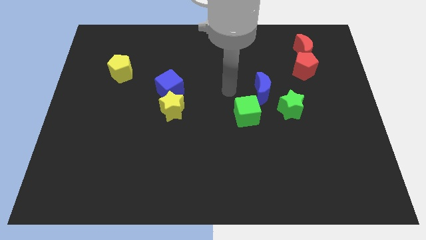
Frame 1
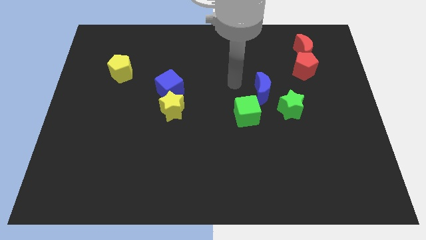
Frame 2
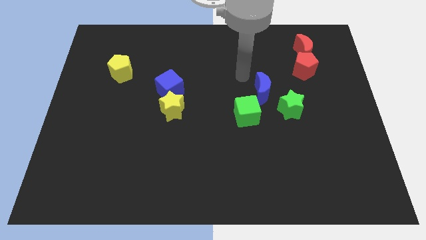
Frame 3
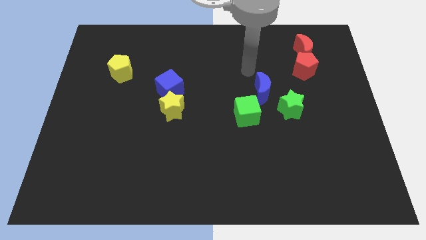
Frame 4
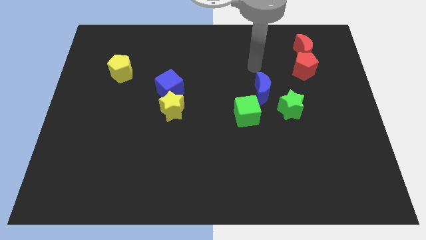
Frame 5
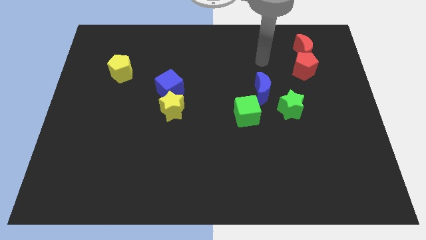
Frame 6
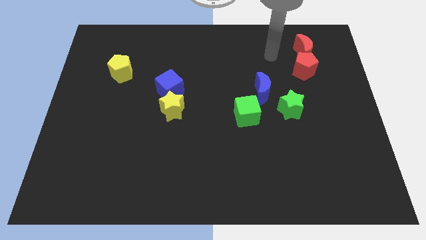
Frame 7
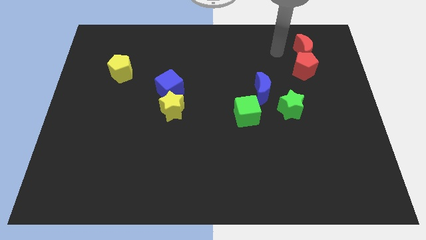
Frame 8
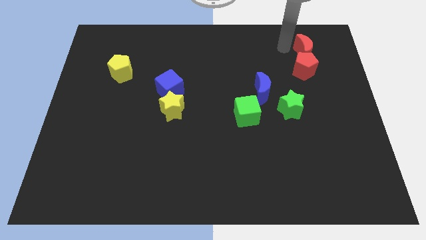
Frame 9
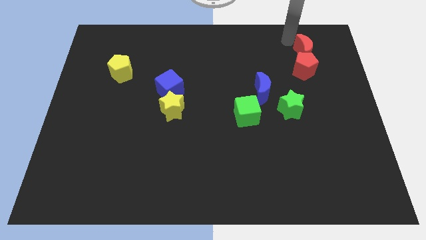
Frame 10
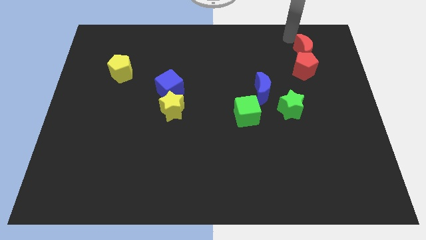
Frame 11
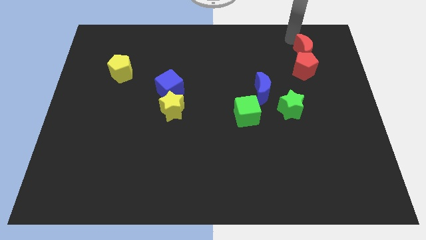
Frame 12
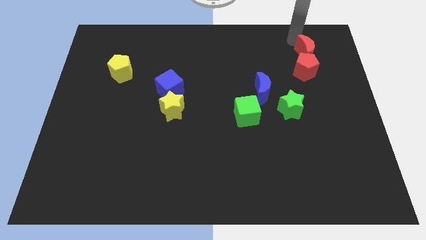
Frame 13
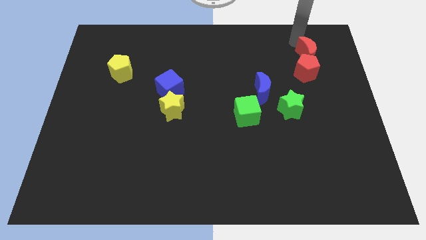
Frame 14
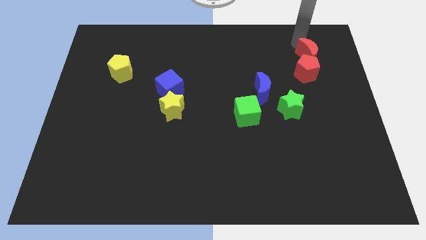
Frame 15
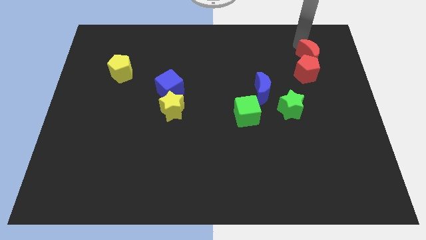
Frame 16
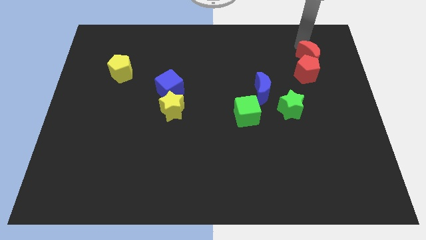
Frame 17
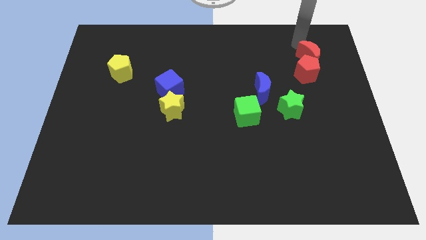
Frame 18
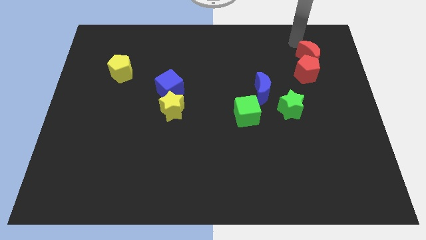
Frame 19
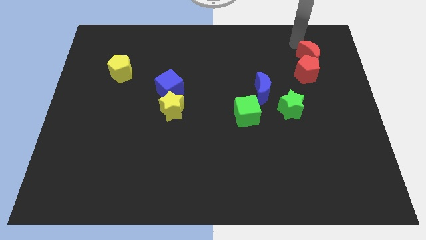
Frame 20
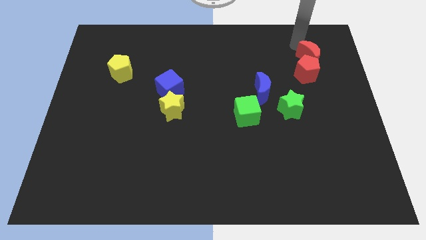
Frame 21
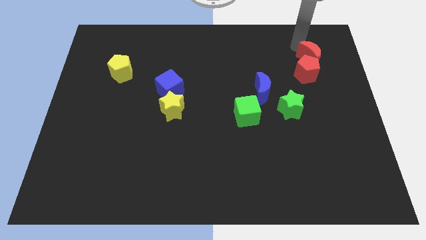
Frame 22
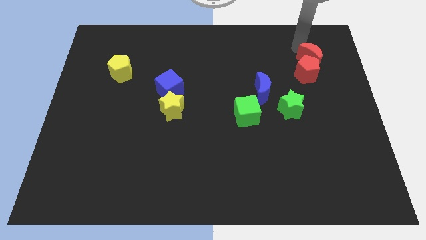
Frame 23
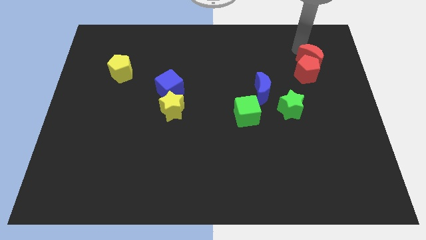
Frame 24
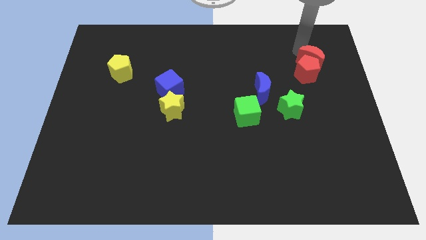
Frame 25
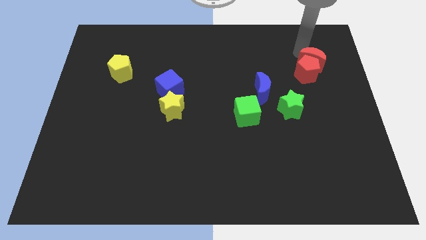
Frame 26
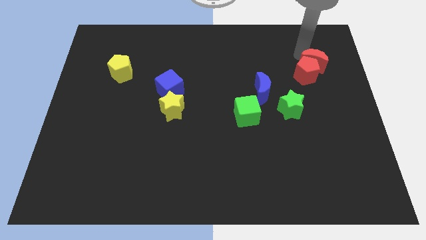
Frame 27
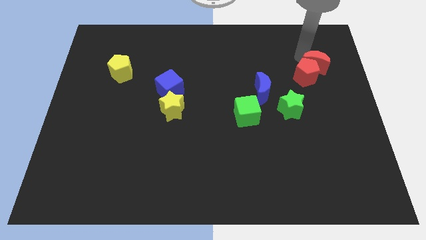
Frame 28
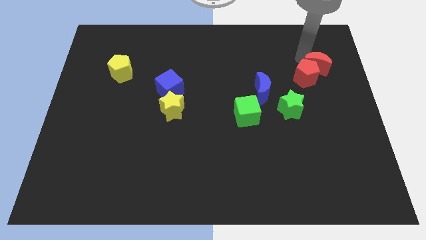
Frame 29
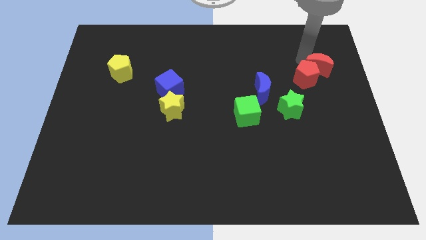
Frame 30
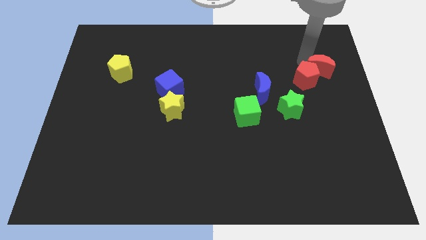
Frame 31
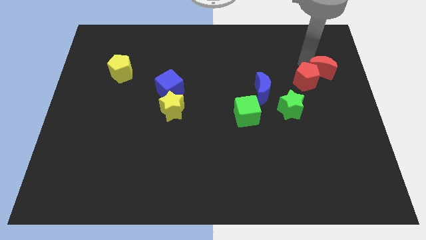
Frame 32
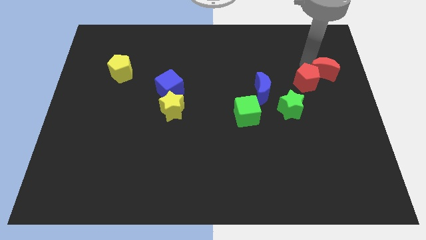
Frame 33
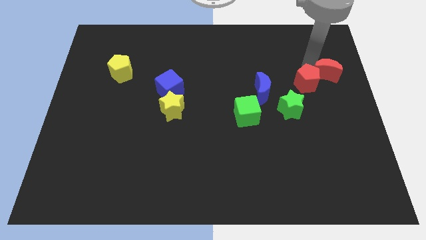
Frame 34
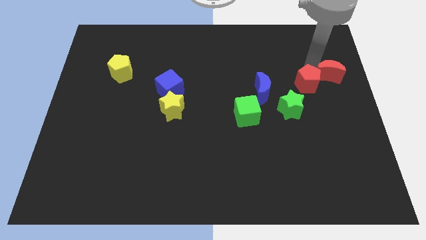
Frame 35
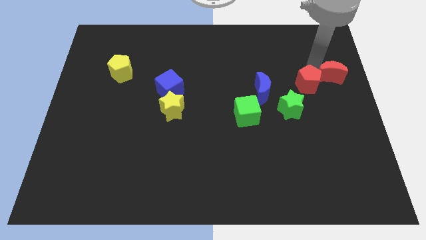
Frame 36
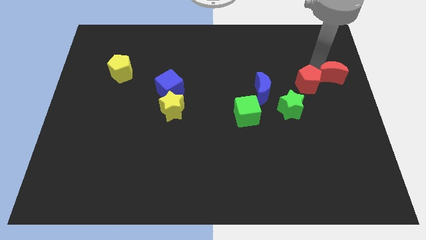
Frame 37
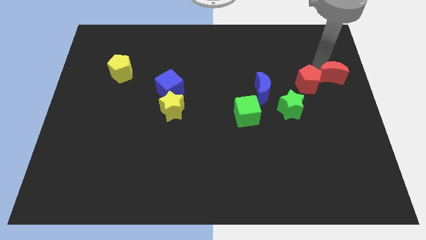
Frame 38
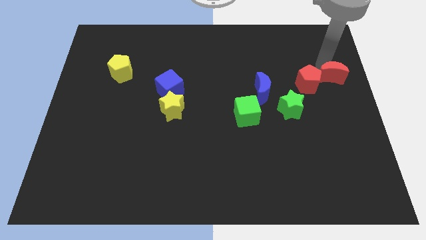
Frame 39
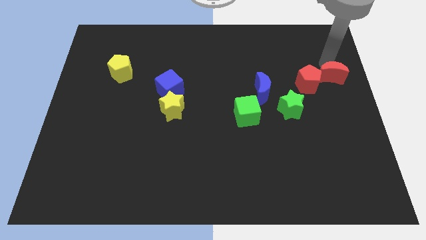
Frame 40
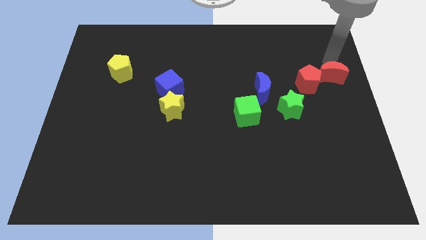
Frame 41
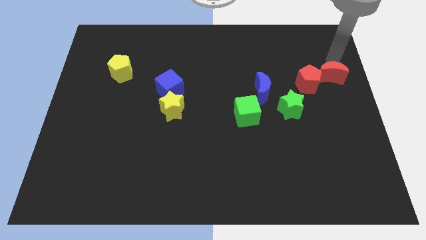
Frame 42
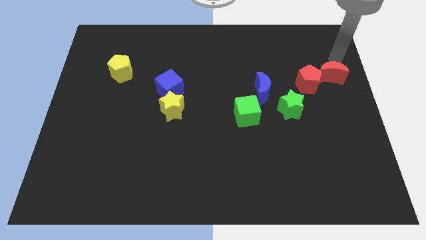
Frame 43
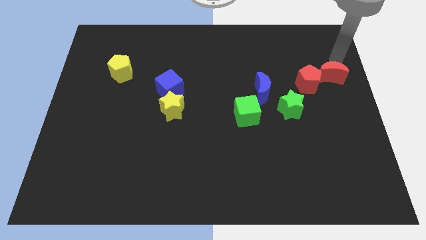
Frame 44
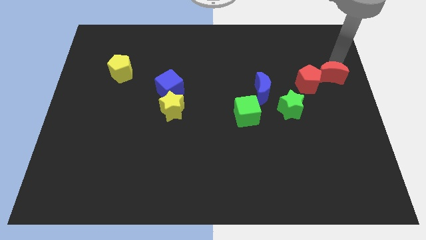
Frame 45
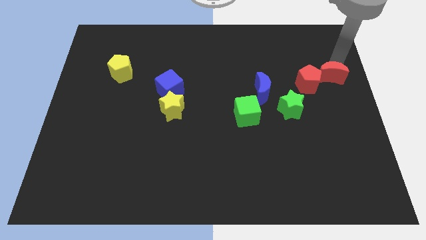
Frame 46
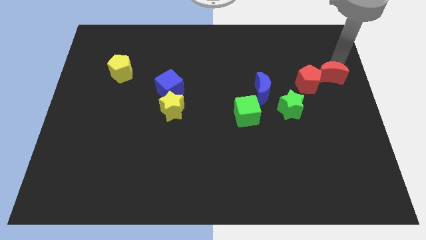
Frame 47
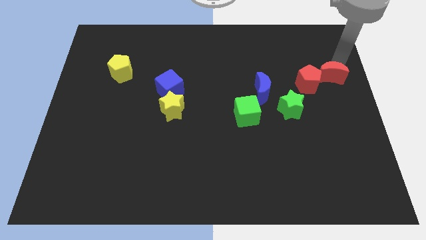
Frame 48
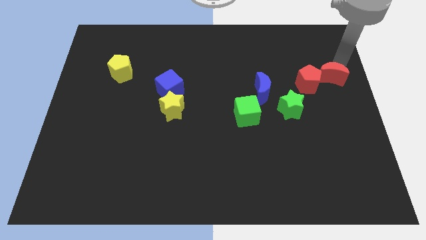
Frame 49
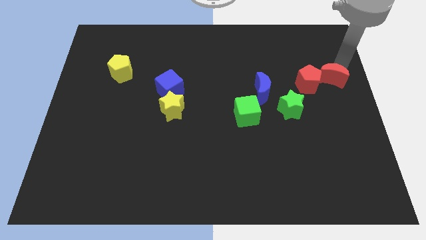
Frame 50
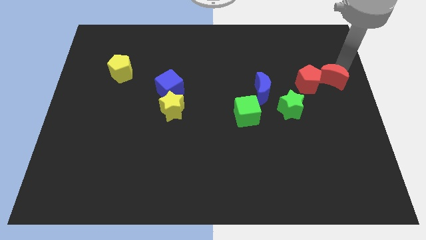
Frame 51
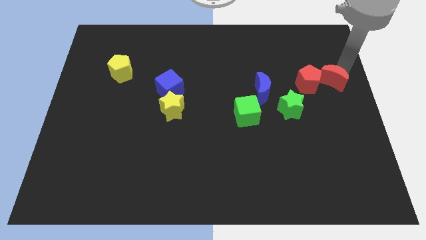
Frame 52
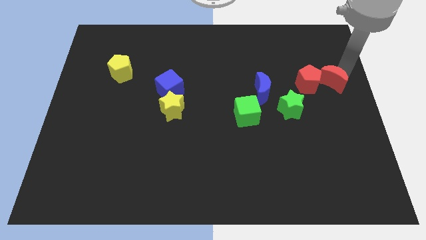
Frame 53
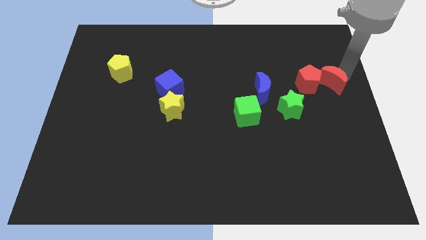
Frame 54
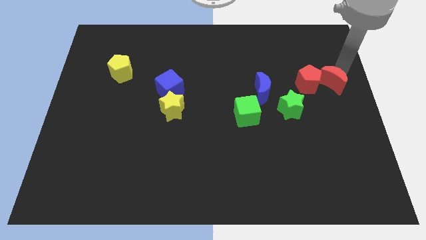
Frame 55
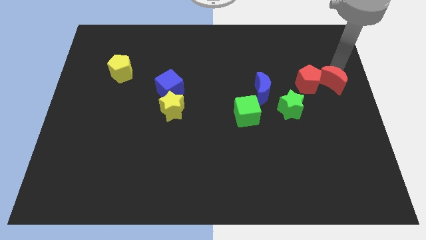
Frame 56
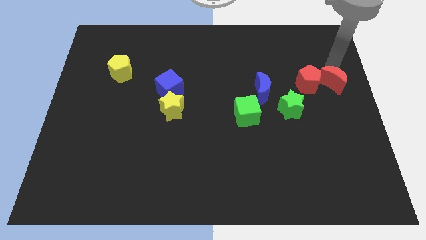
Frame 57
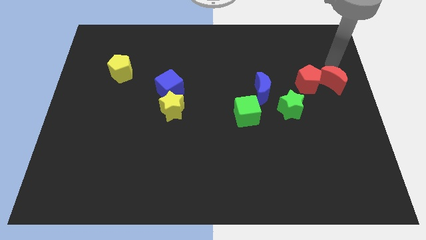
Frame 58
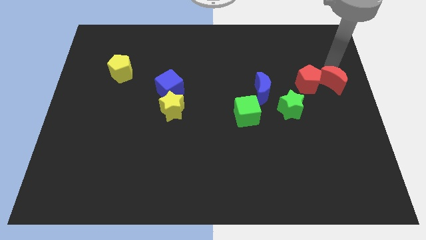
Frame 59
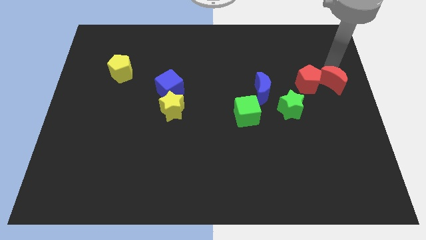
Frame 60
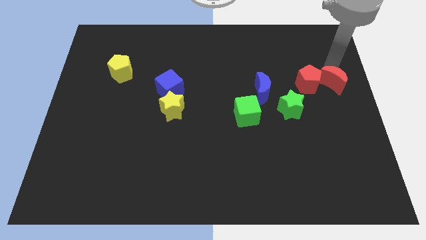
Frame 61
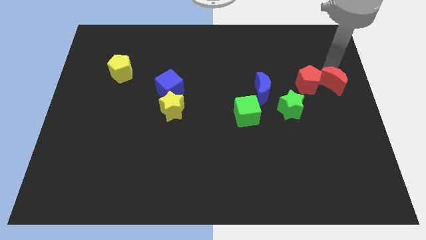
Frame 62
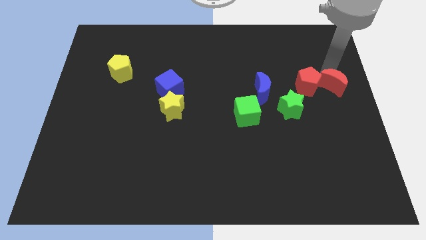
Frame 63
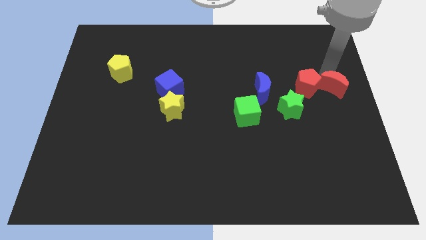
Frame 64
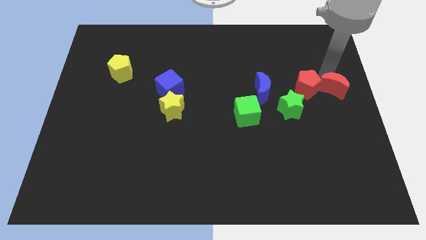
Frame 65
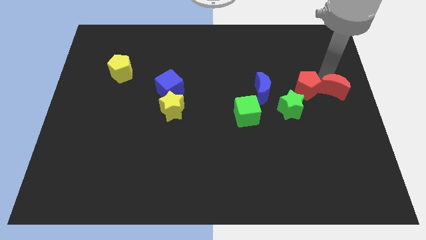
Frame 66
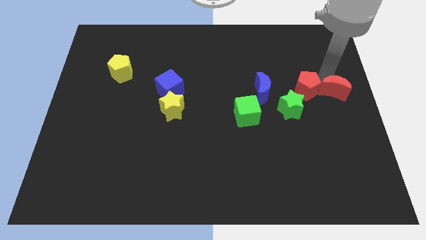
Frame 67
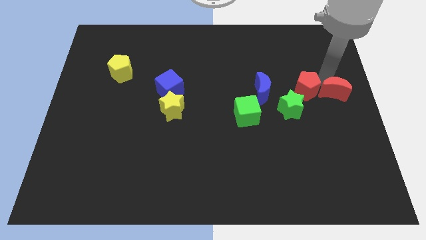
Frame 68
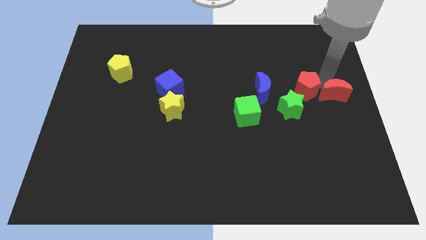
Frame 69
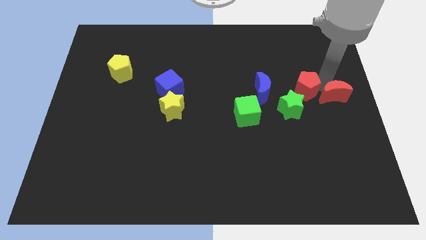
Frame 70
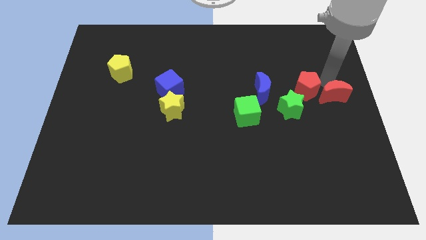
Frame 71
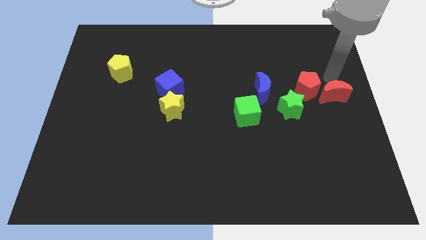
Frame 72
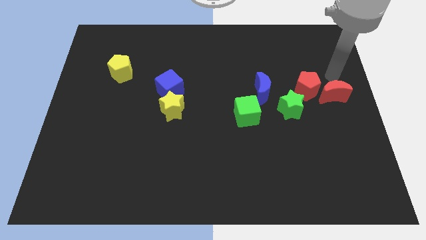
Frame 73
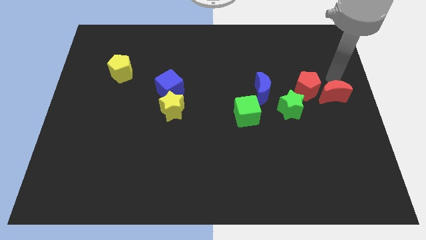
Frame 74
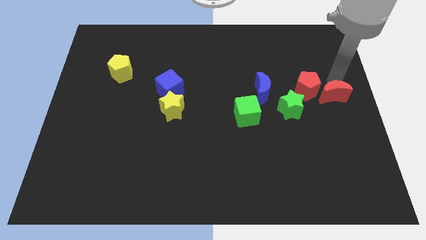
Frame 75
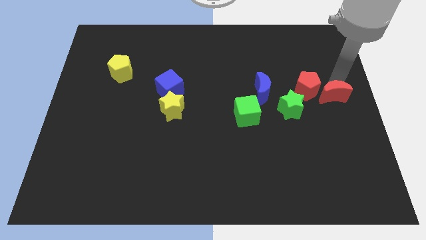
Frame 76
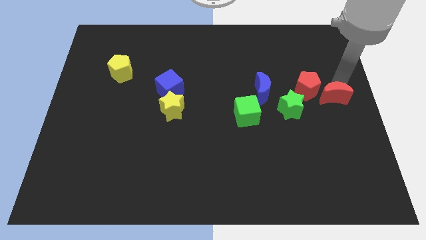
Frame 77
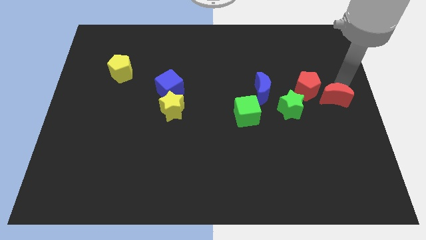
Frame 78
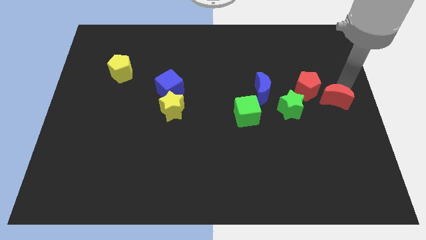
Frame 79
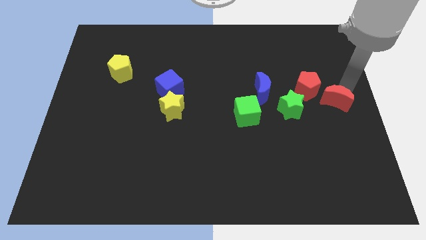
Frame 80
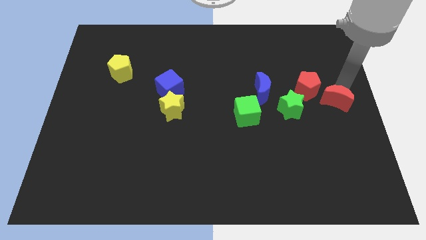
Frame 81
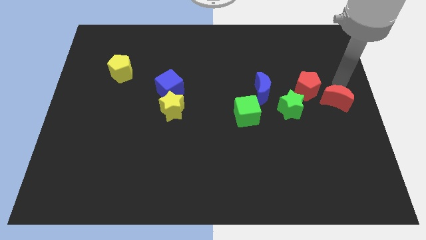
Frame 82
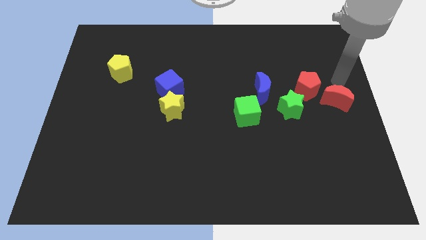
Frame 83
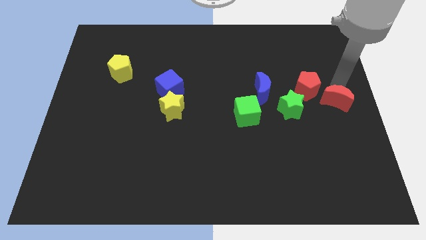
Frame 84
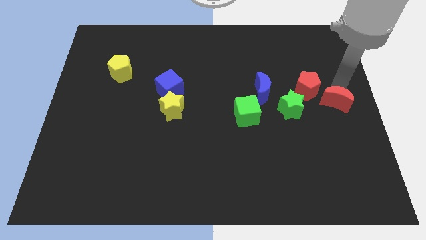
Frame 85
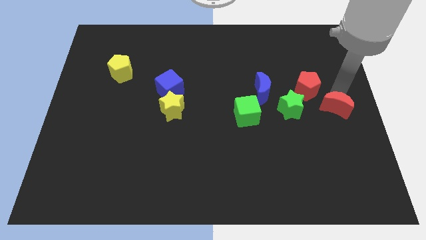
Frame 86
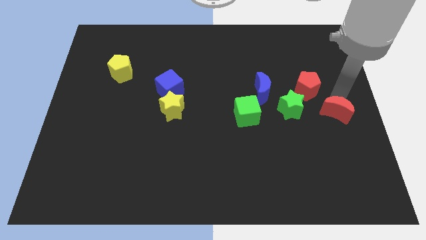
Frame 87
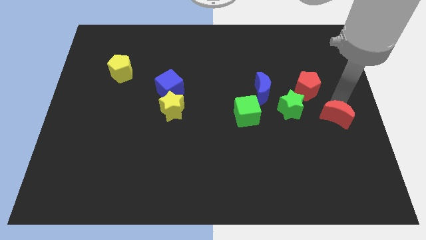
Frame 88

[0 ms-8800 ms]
push the red moon downwards
